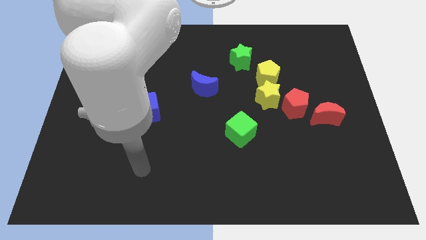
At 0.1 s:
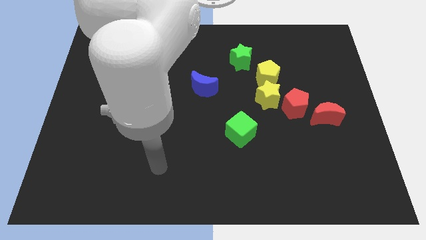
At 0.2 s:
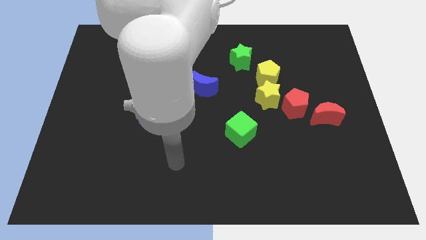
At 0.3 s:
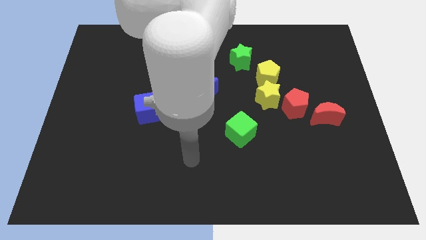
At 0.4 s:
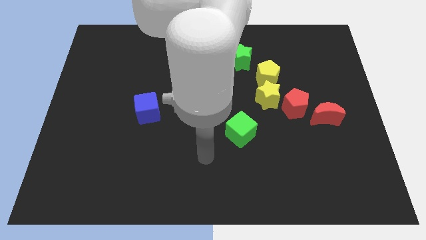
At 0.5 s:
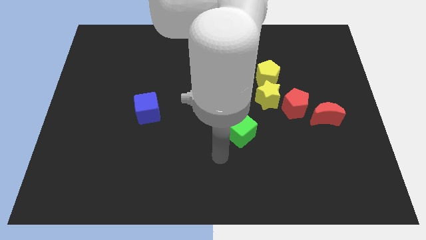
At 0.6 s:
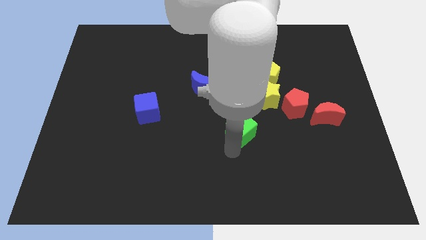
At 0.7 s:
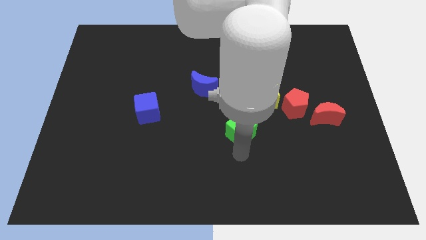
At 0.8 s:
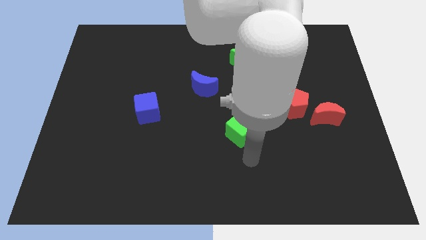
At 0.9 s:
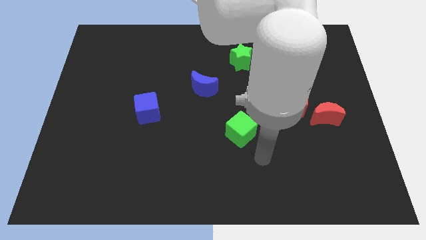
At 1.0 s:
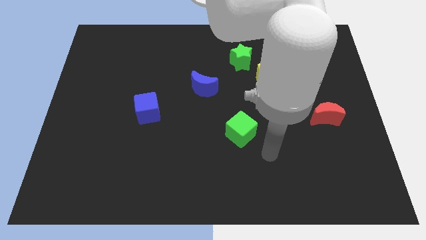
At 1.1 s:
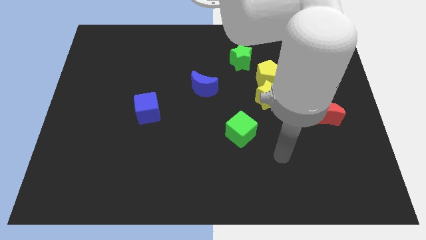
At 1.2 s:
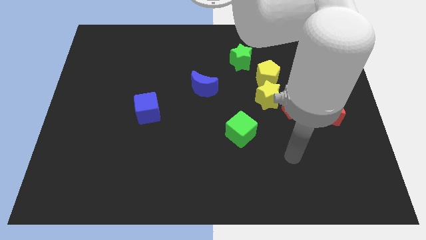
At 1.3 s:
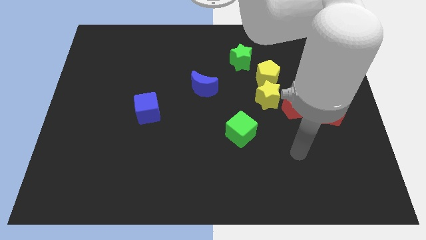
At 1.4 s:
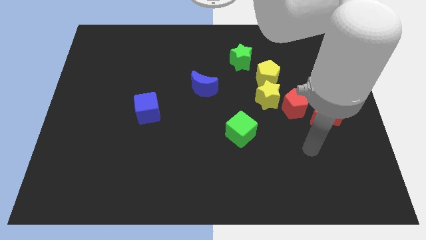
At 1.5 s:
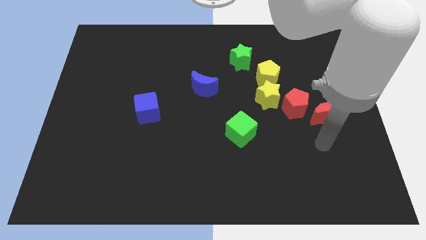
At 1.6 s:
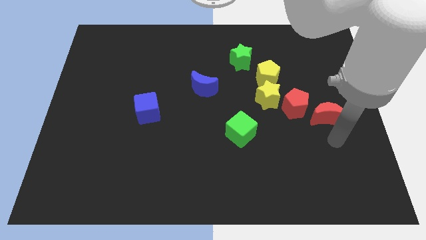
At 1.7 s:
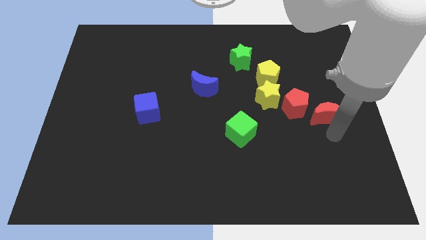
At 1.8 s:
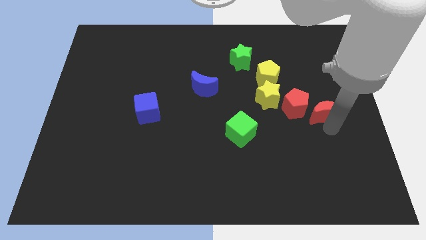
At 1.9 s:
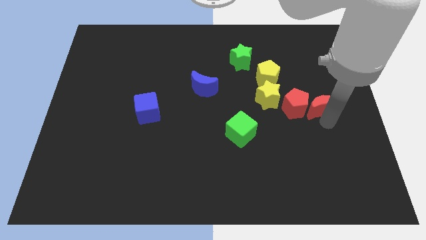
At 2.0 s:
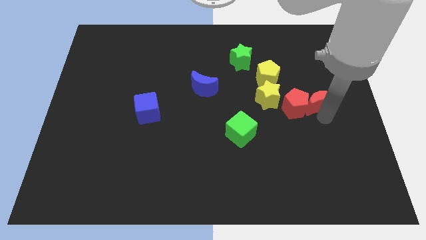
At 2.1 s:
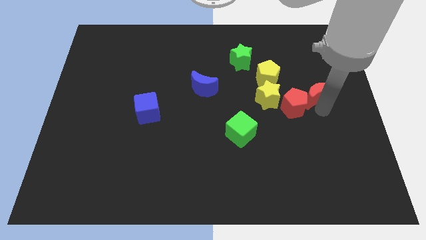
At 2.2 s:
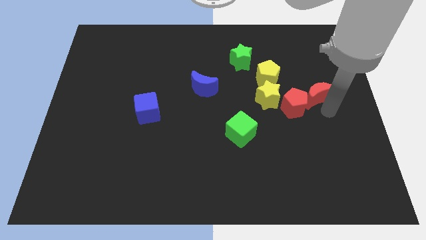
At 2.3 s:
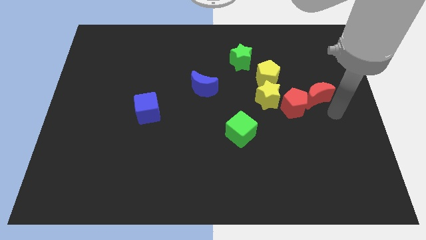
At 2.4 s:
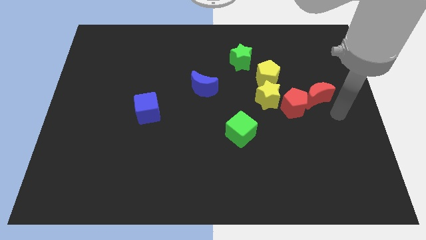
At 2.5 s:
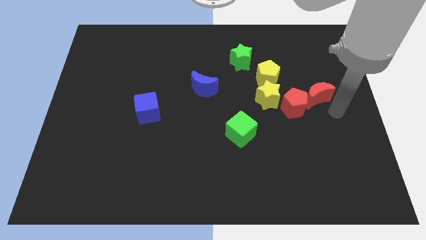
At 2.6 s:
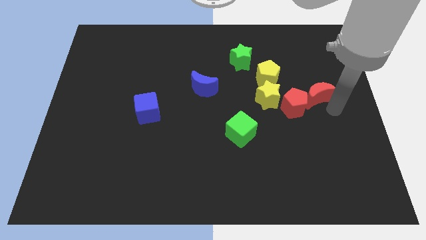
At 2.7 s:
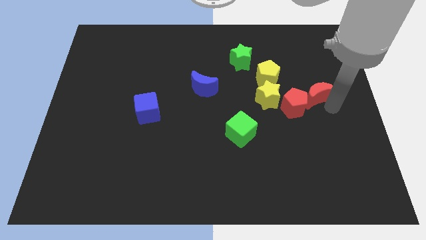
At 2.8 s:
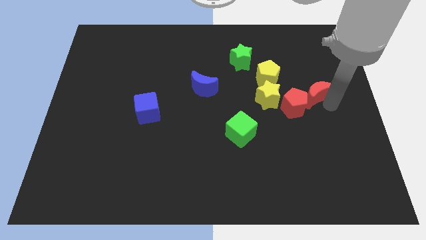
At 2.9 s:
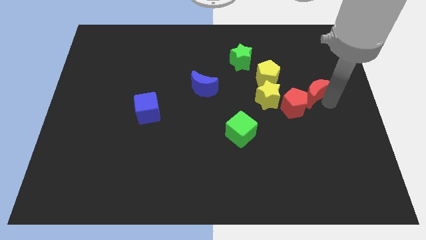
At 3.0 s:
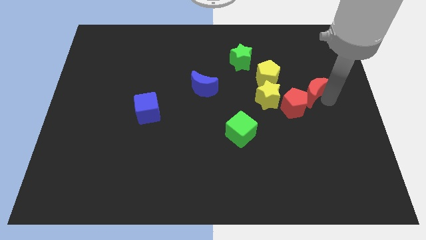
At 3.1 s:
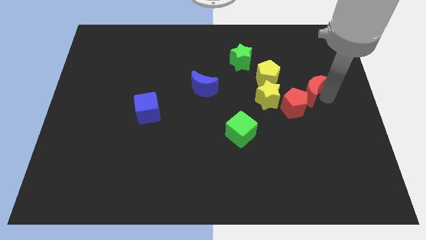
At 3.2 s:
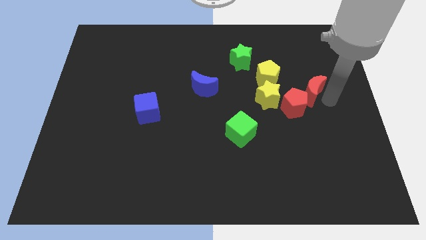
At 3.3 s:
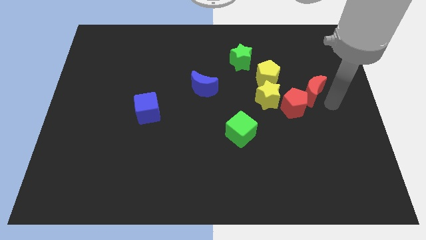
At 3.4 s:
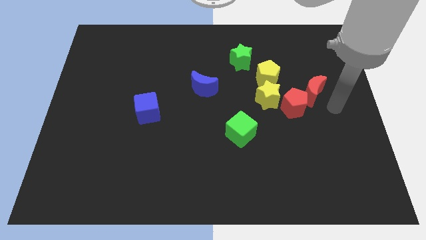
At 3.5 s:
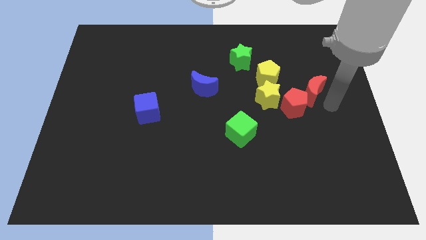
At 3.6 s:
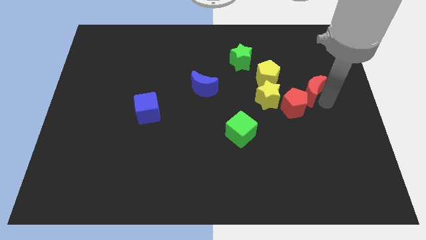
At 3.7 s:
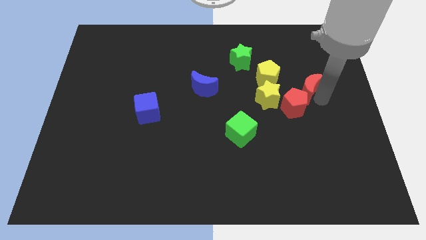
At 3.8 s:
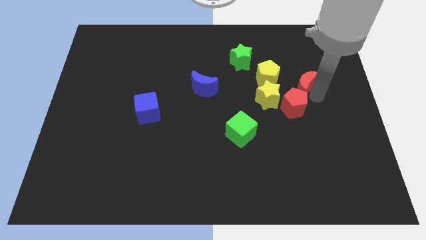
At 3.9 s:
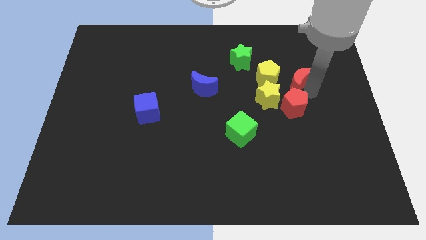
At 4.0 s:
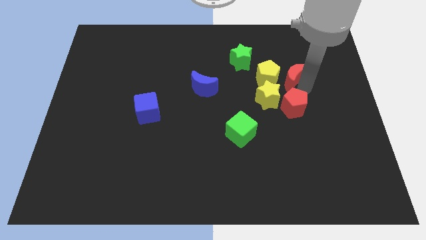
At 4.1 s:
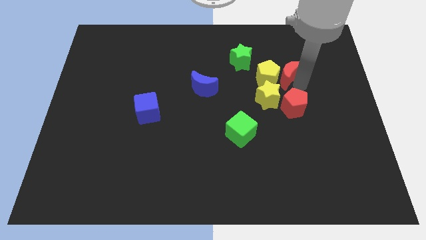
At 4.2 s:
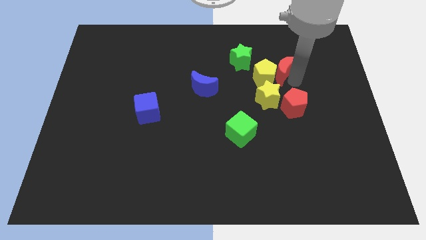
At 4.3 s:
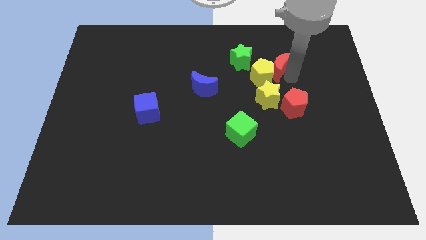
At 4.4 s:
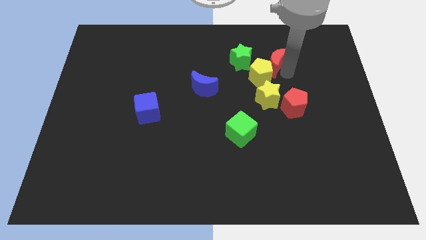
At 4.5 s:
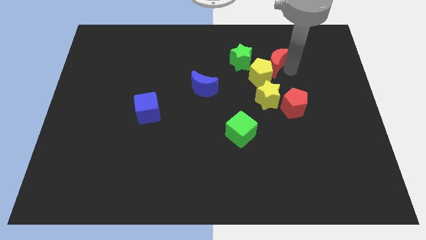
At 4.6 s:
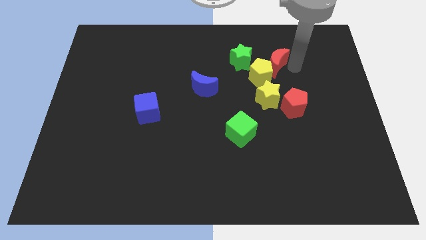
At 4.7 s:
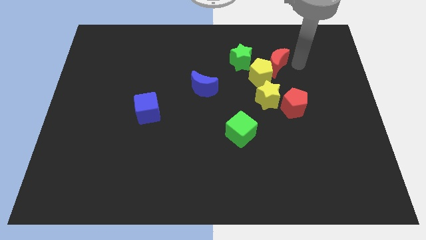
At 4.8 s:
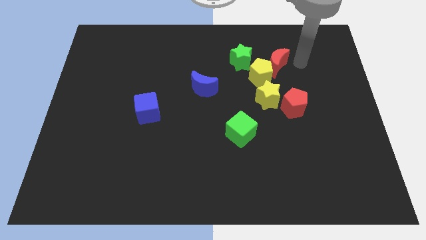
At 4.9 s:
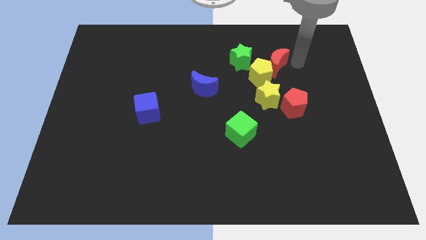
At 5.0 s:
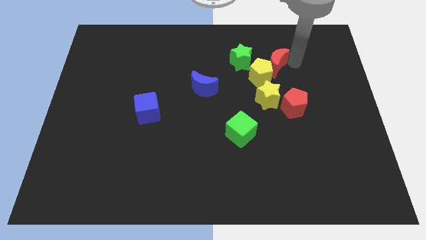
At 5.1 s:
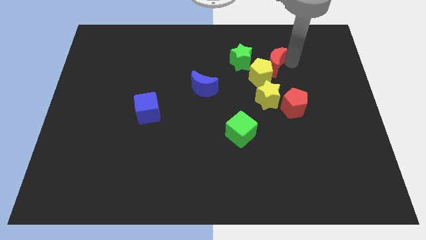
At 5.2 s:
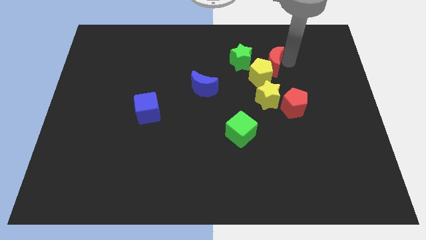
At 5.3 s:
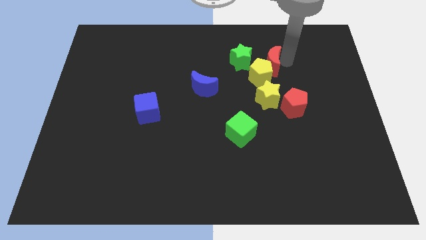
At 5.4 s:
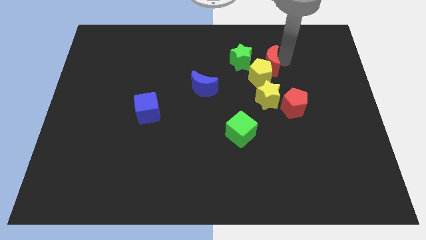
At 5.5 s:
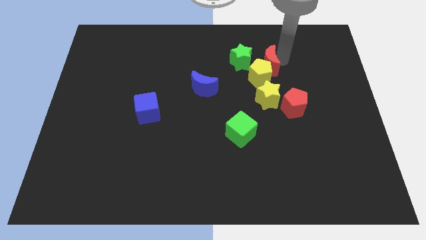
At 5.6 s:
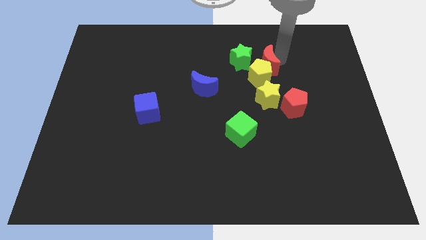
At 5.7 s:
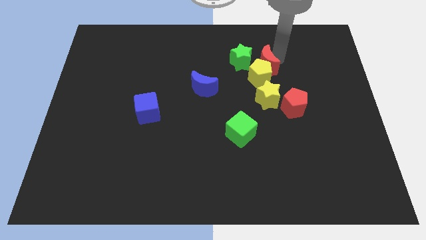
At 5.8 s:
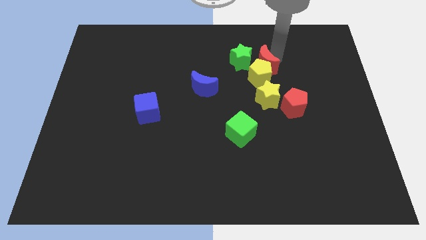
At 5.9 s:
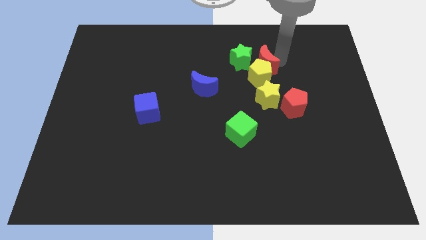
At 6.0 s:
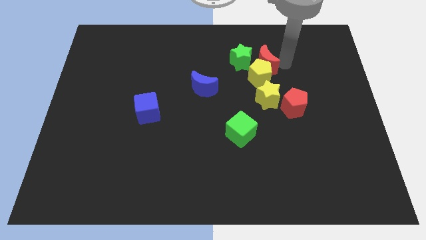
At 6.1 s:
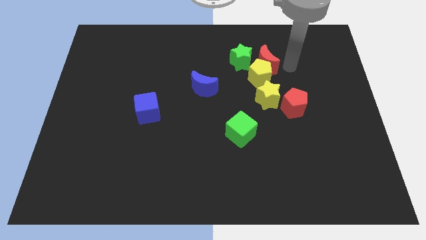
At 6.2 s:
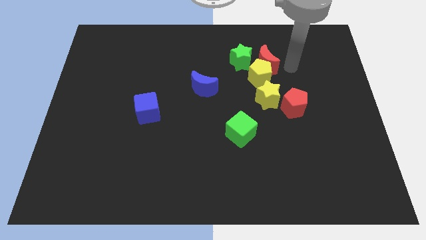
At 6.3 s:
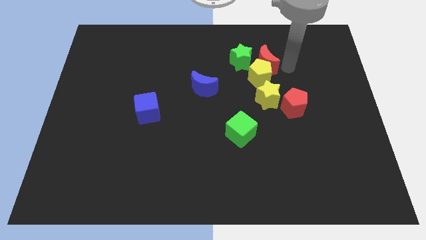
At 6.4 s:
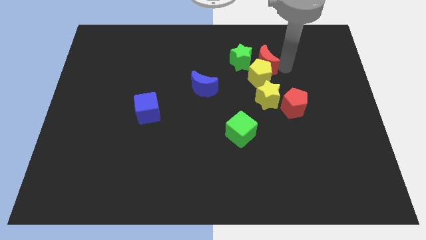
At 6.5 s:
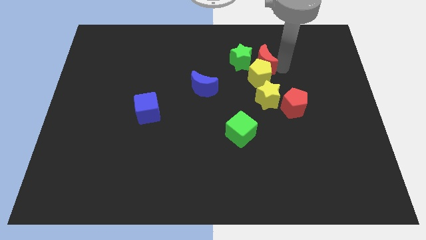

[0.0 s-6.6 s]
push the red moon close to the green star
